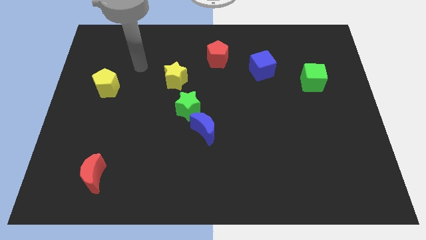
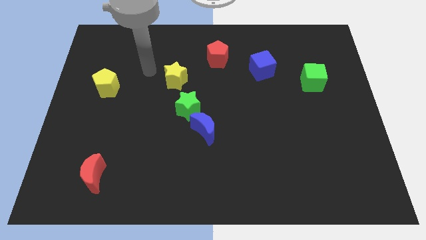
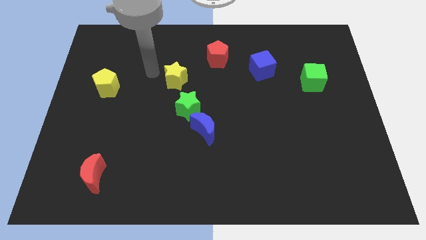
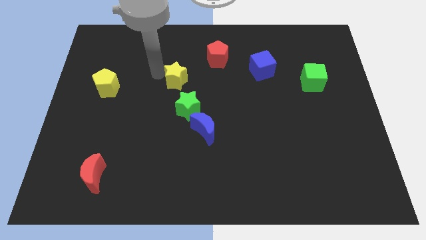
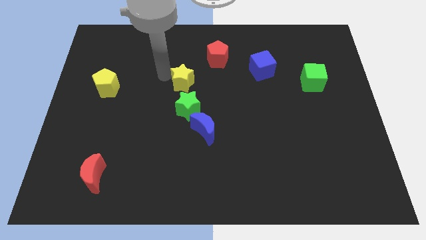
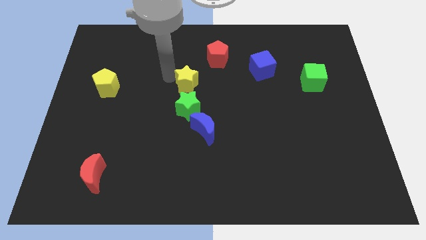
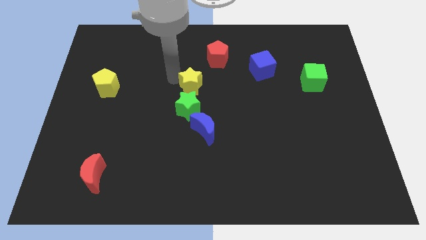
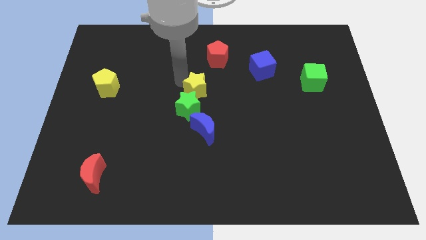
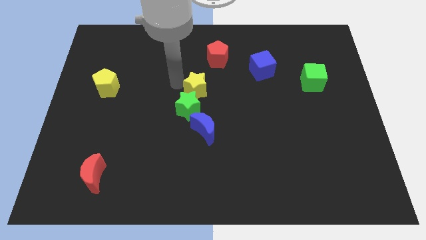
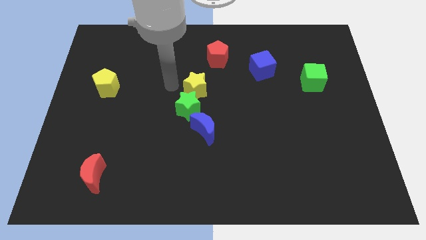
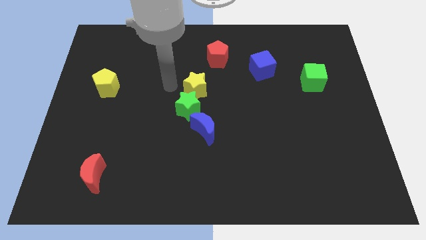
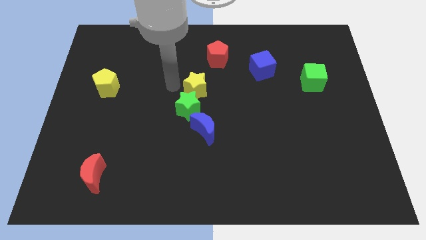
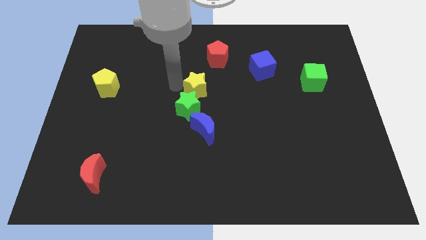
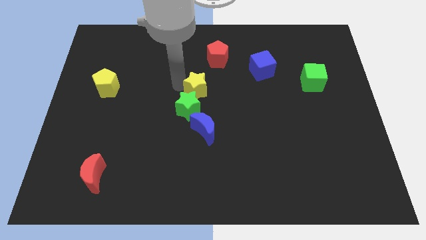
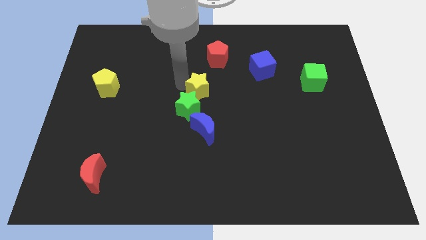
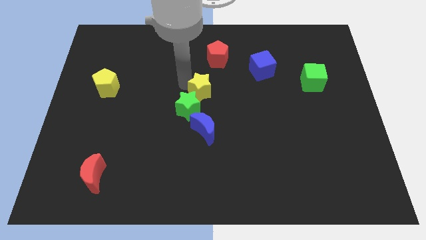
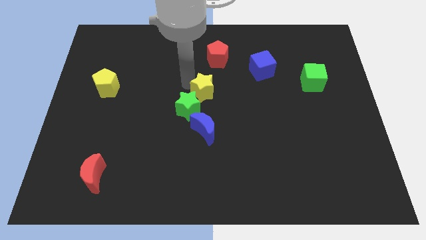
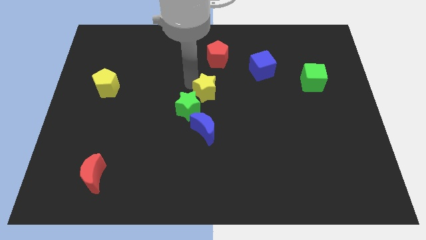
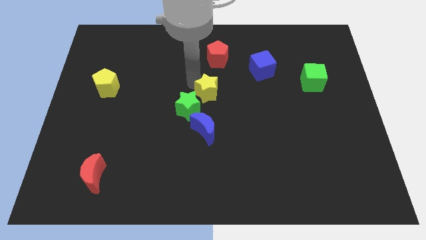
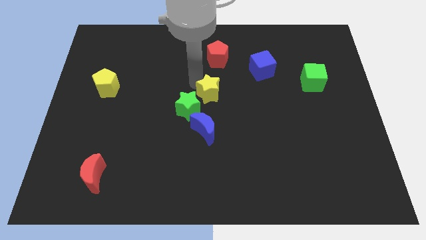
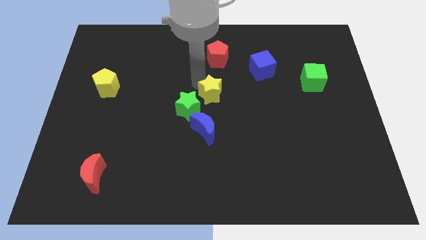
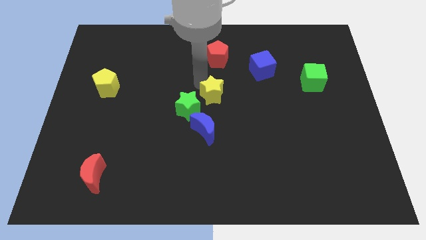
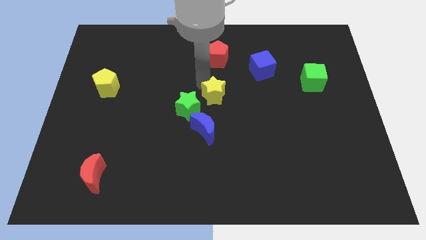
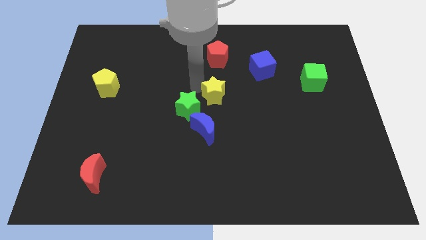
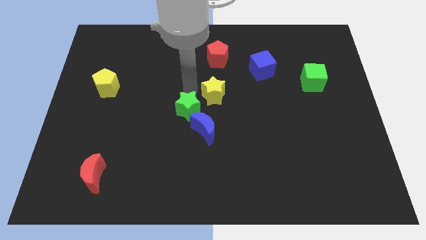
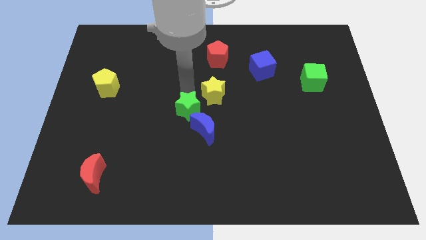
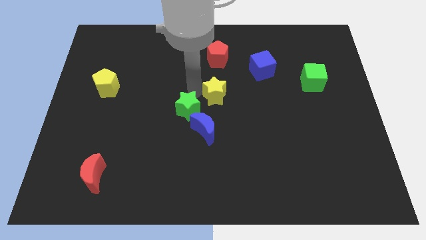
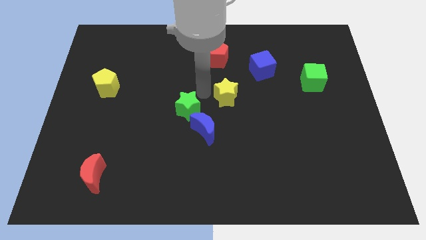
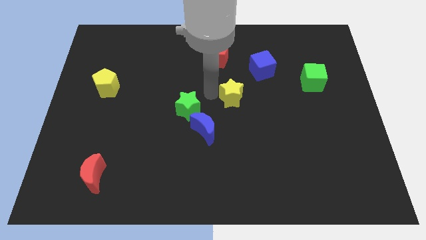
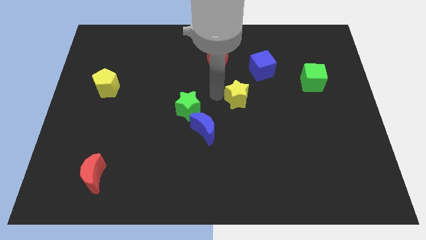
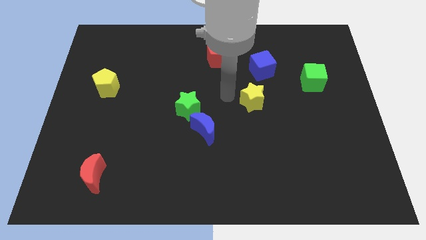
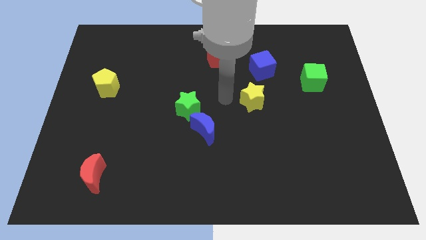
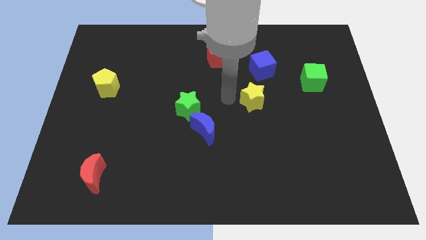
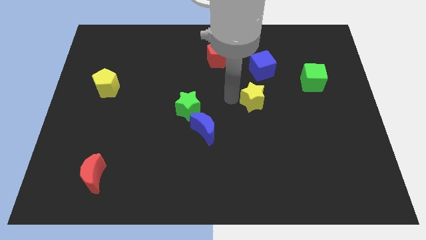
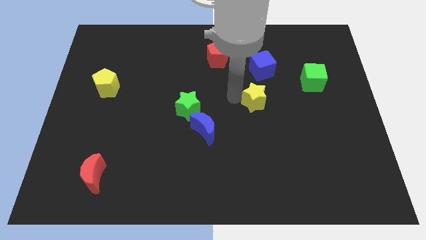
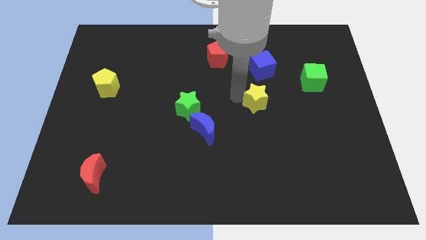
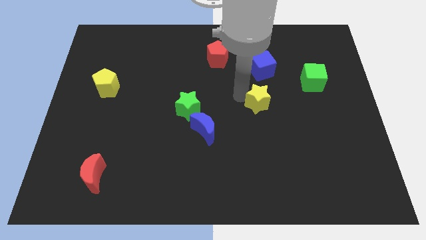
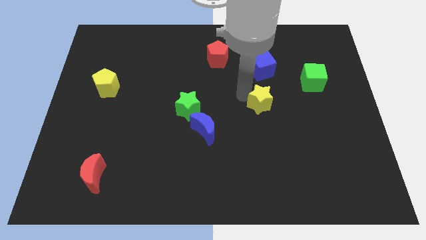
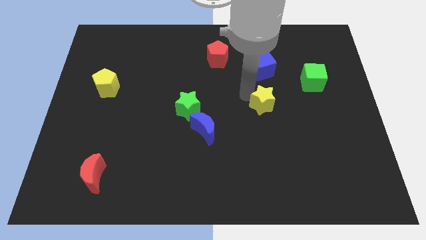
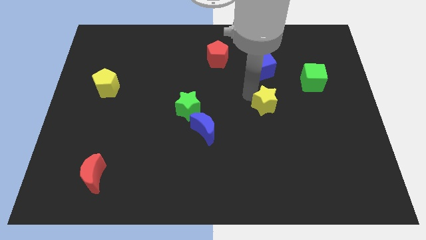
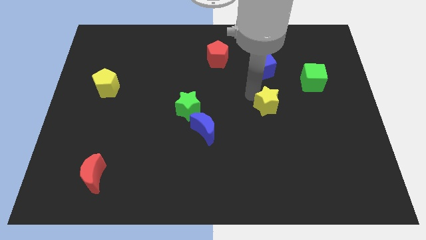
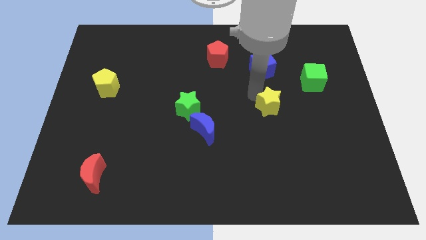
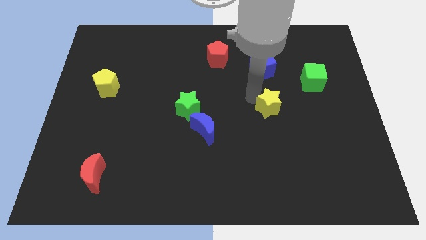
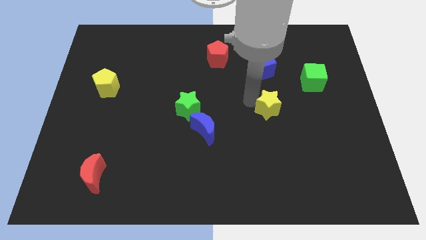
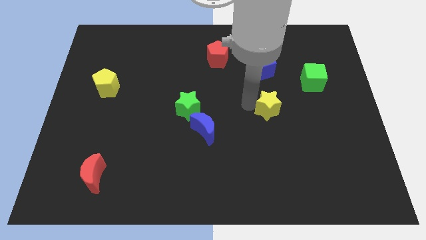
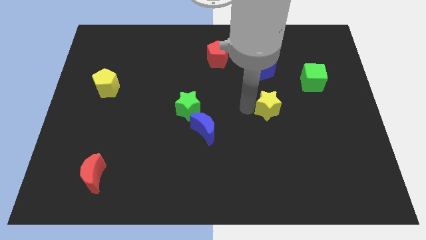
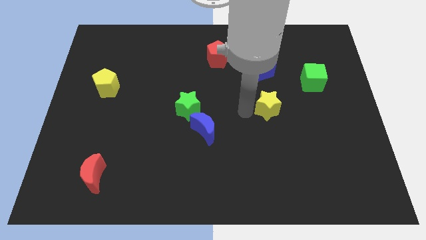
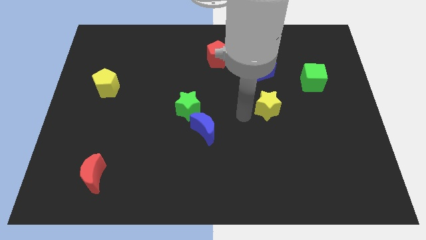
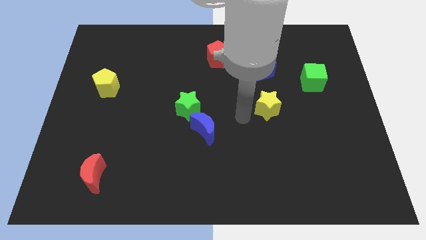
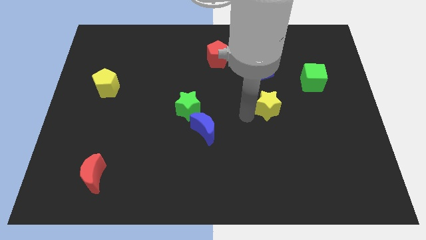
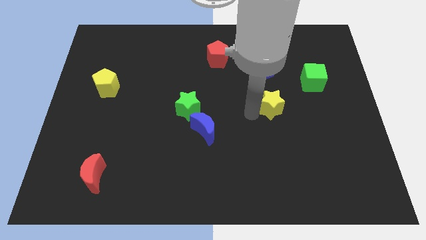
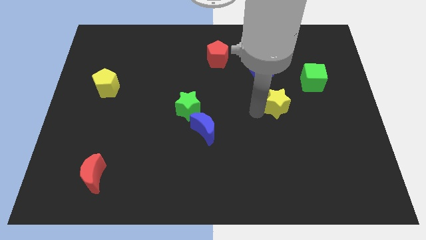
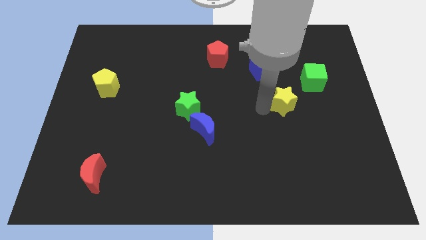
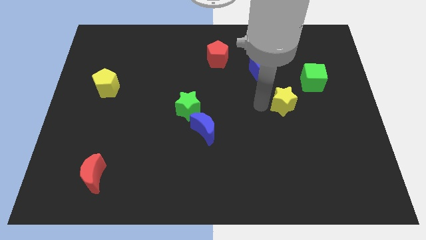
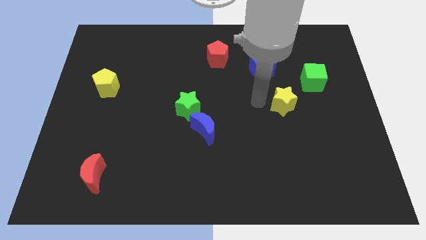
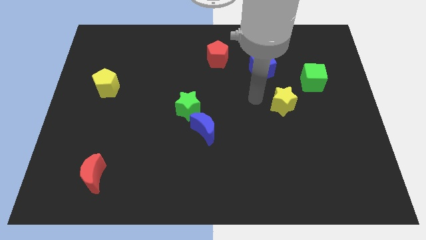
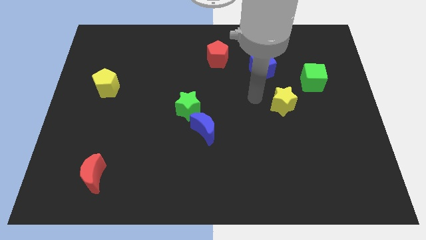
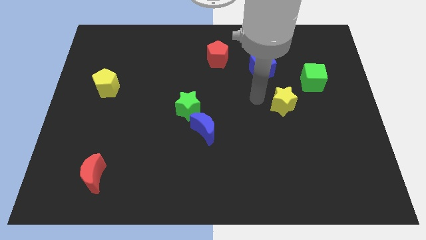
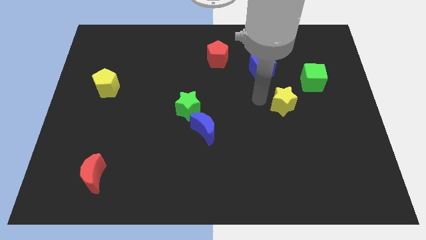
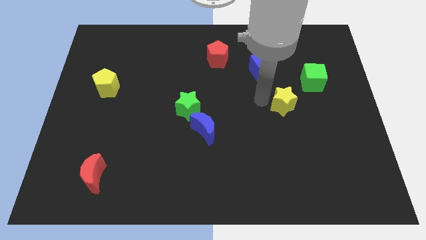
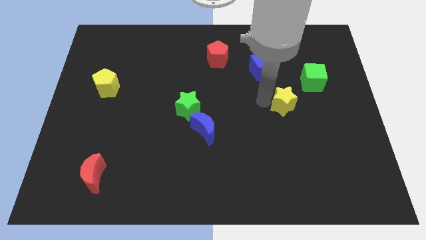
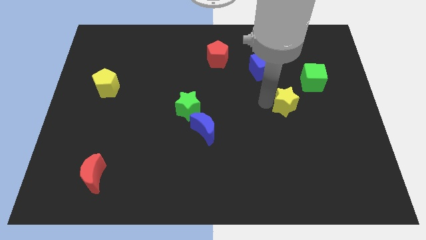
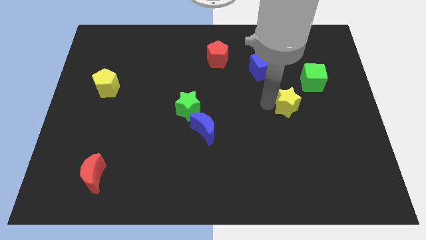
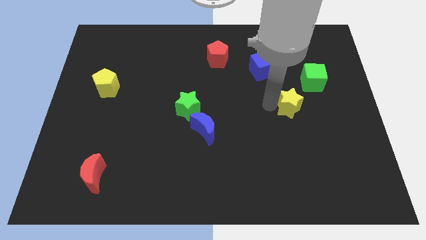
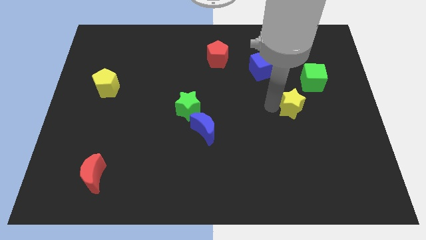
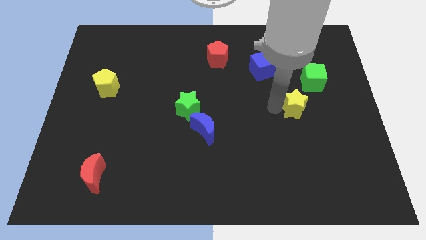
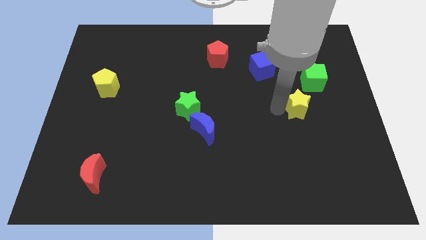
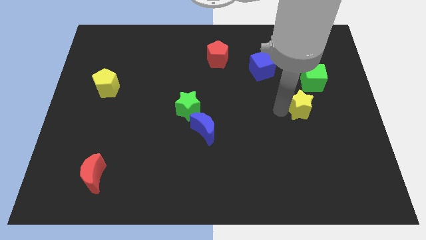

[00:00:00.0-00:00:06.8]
move the yellow star below the green cube

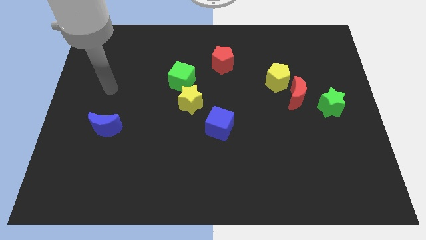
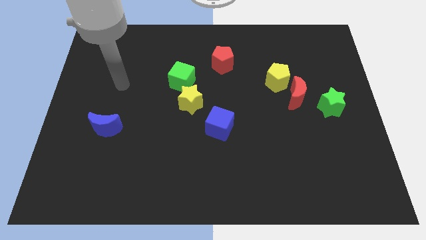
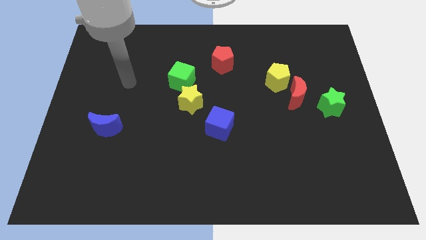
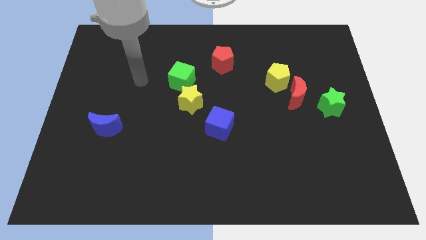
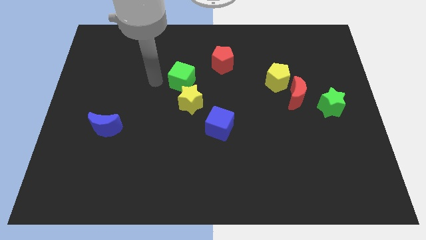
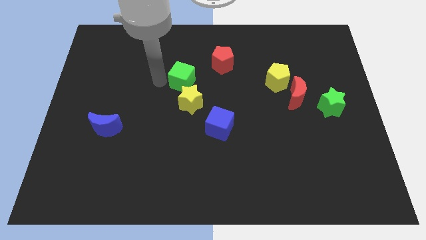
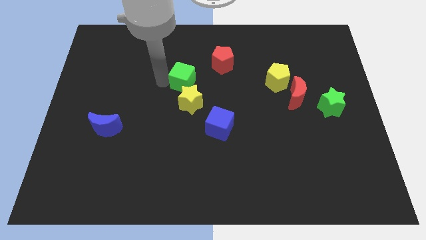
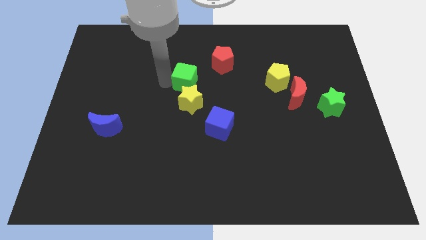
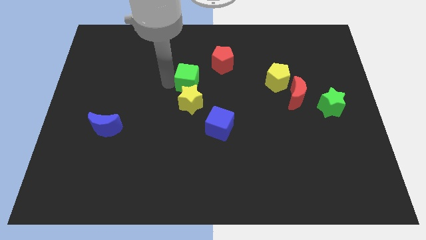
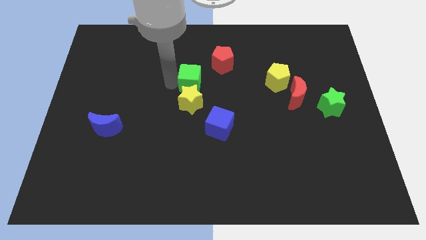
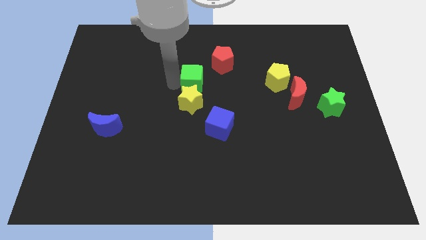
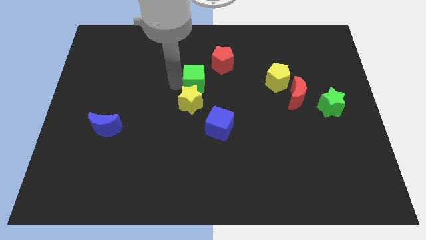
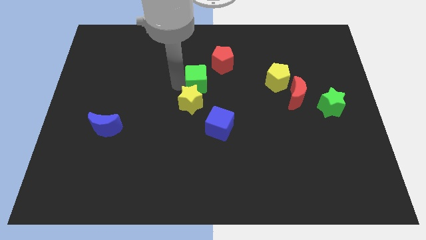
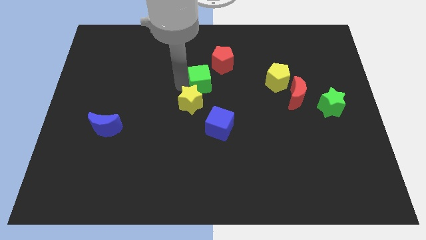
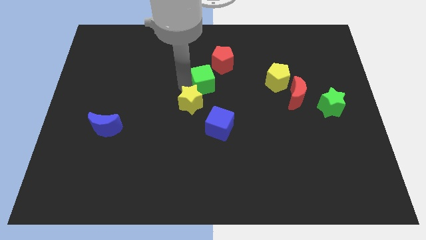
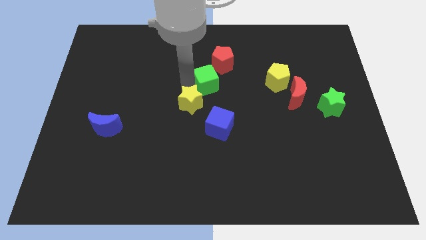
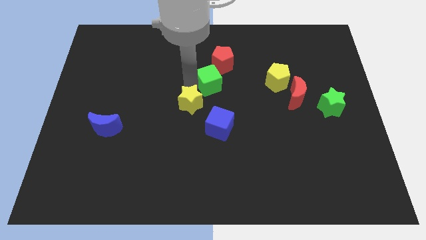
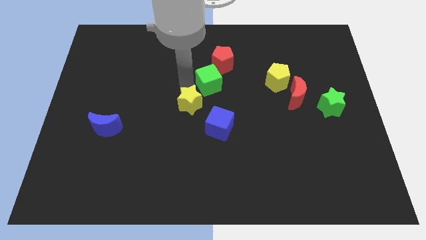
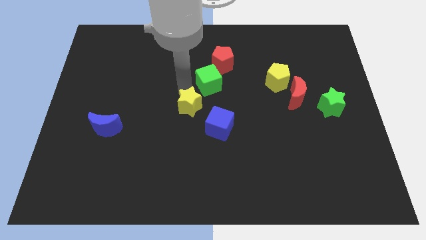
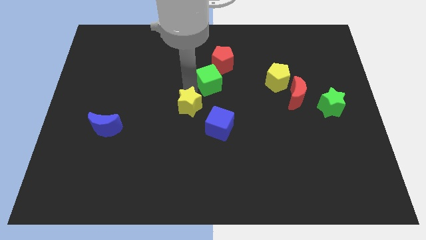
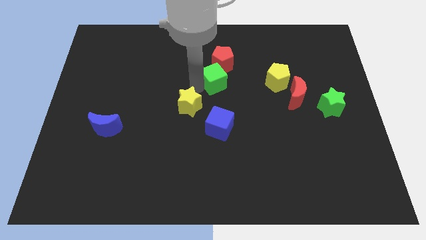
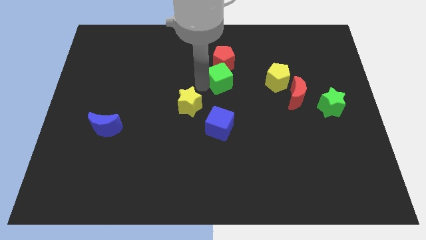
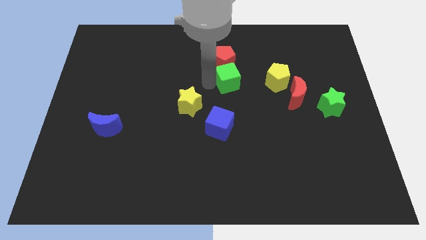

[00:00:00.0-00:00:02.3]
push the green cube diagonally down and to the right of the red pentagon
